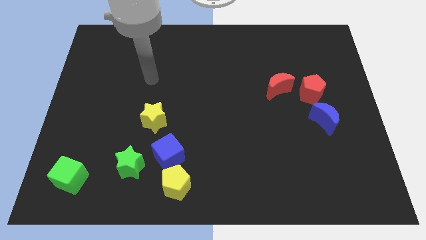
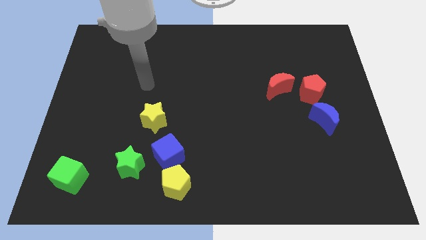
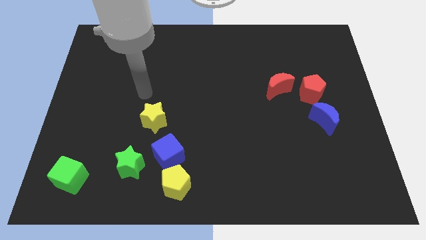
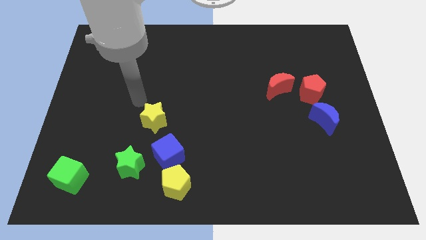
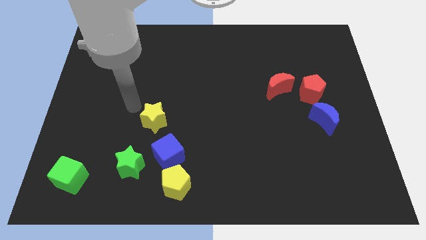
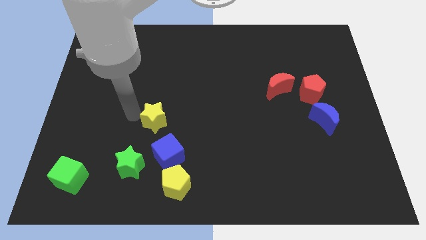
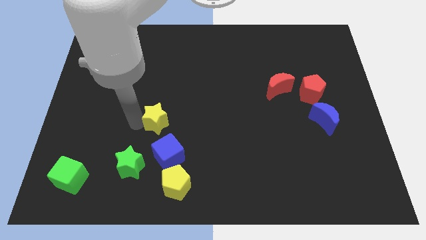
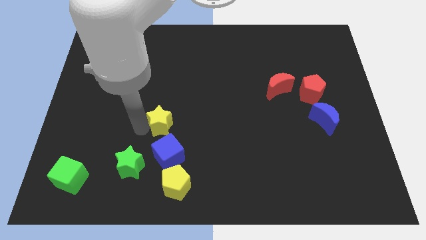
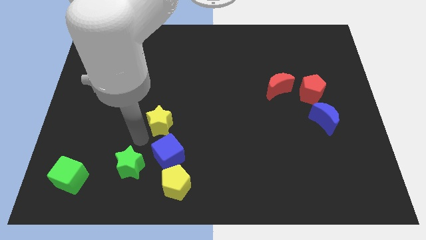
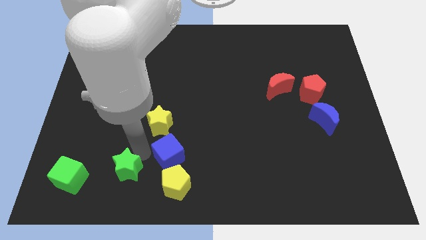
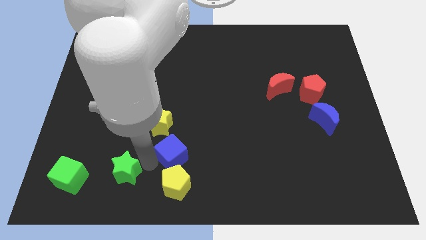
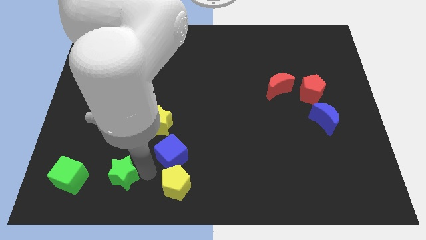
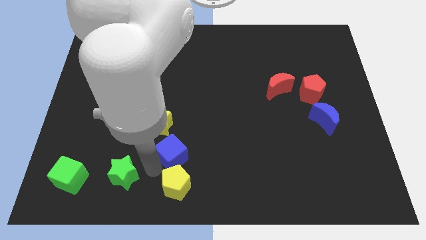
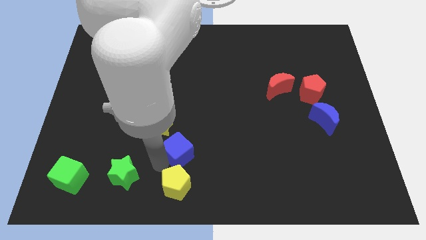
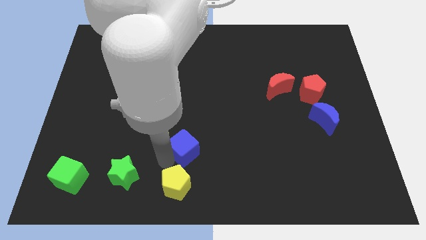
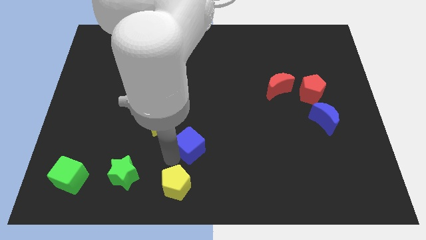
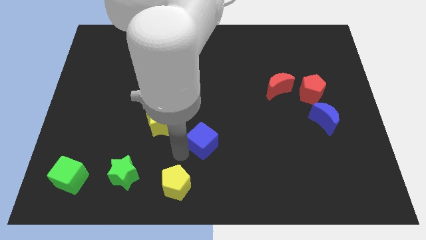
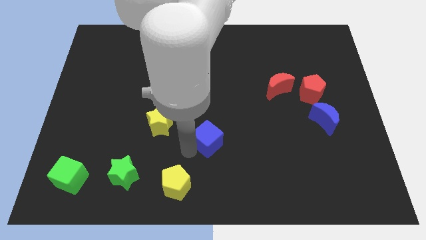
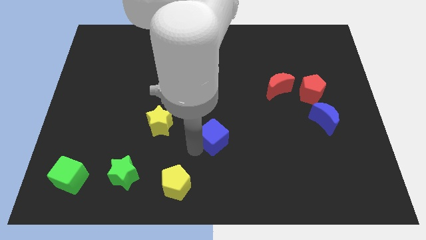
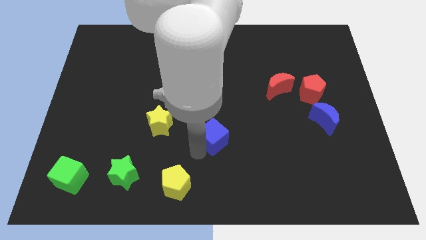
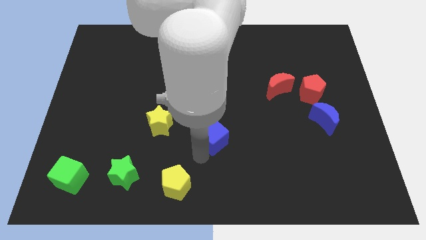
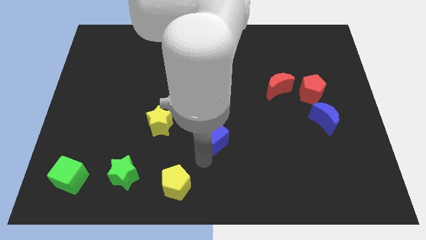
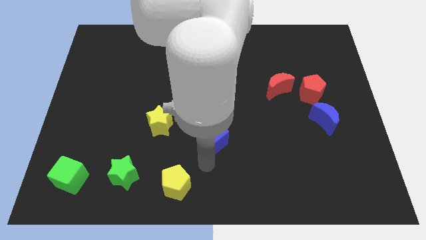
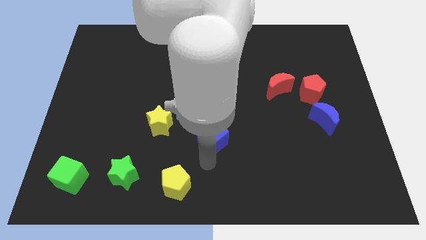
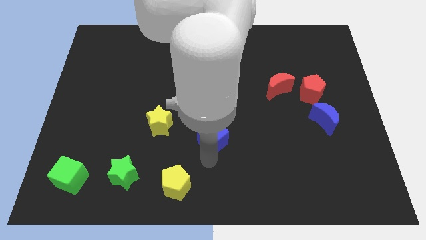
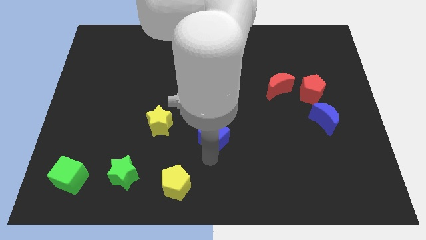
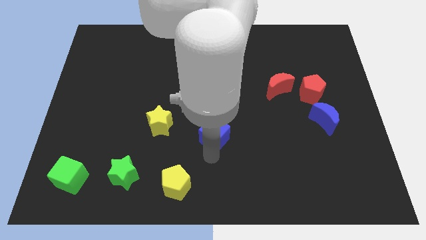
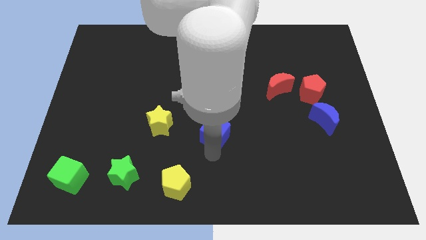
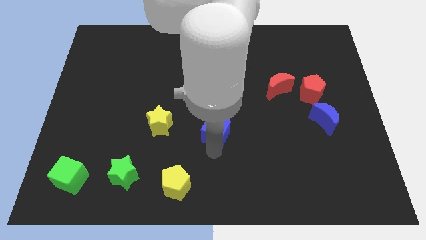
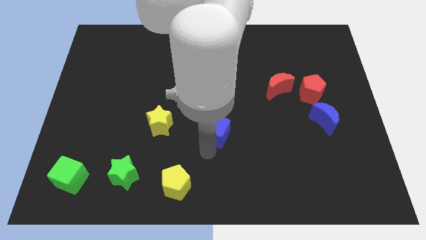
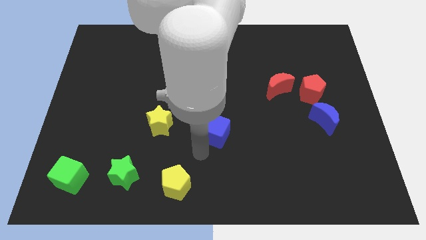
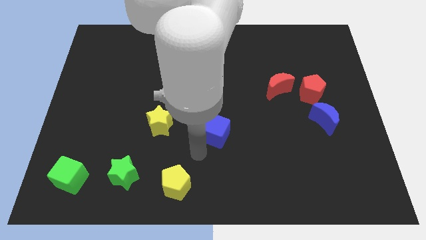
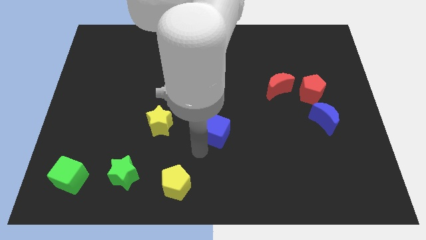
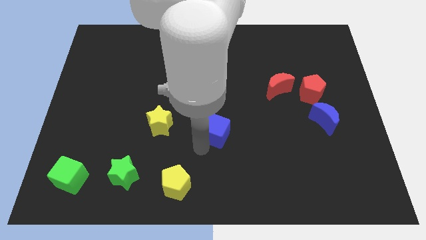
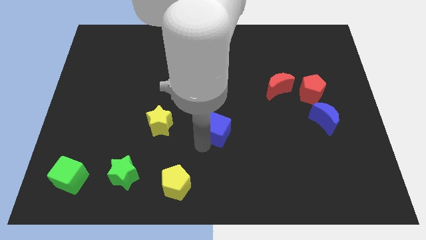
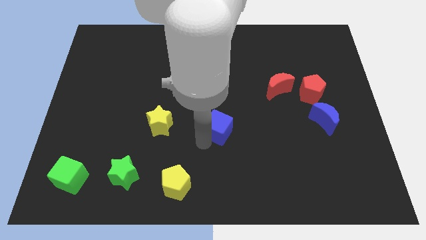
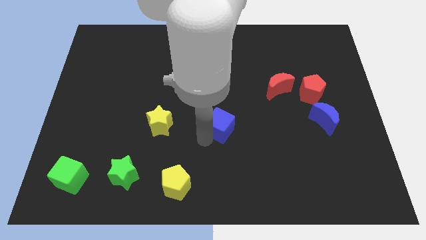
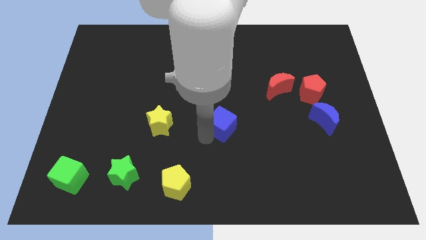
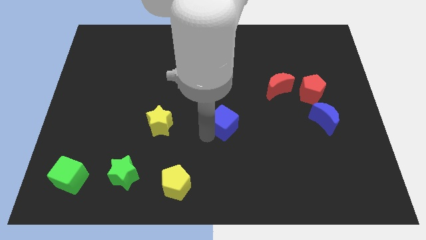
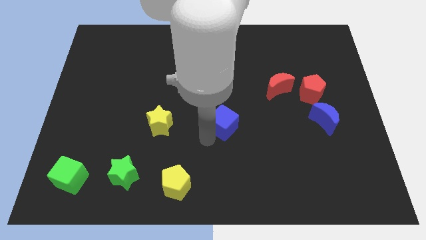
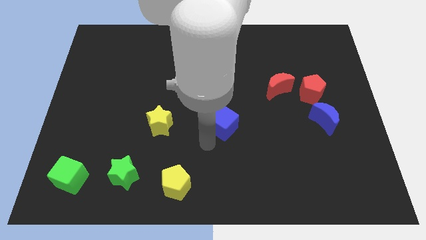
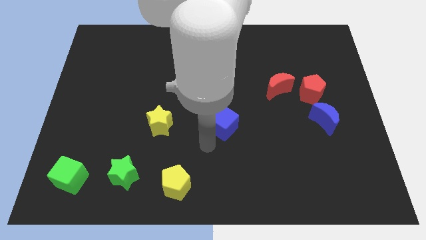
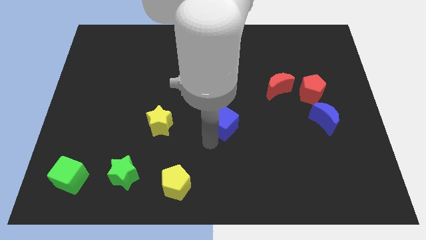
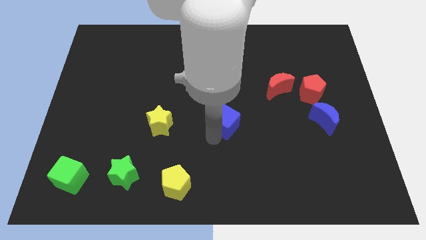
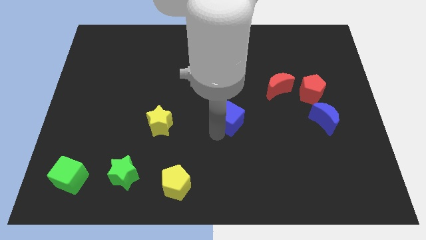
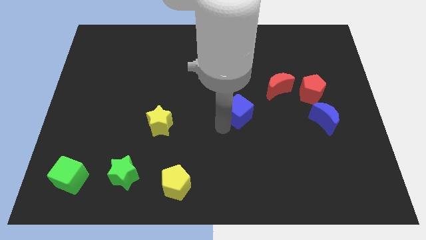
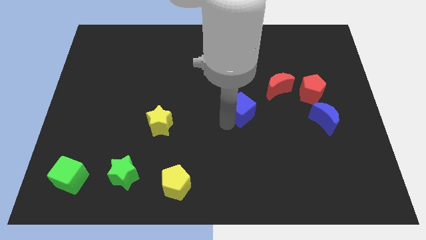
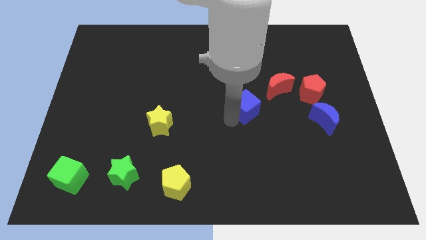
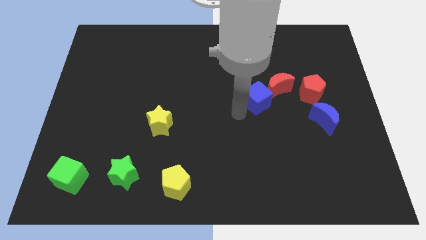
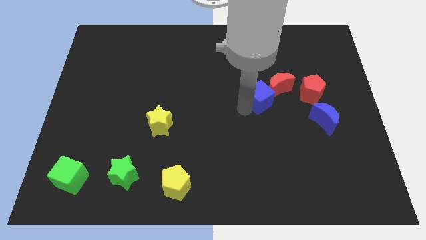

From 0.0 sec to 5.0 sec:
move the blue cube towards the red moon

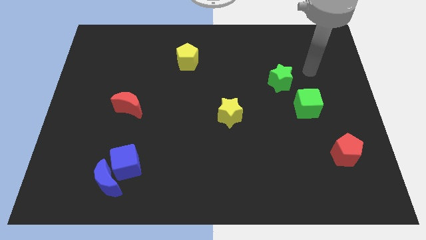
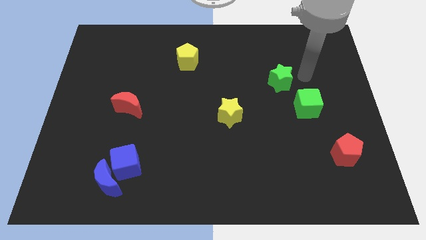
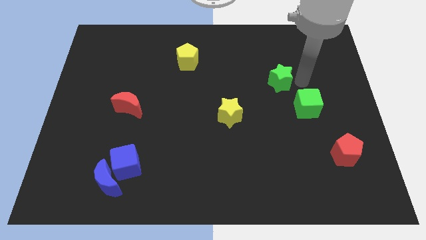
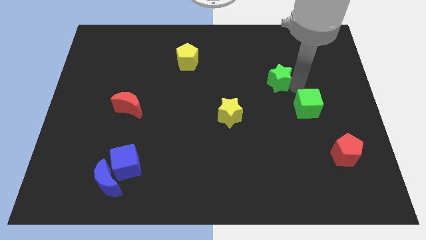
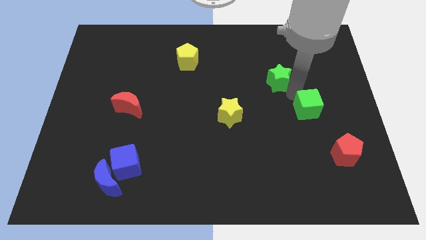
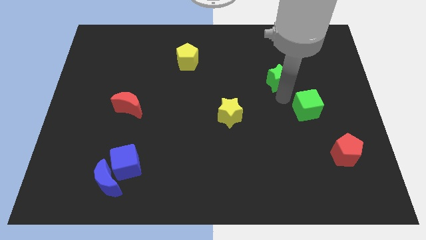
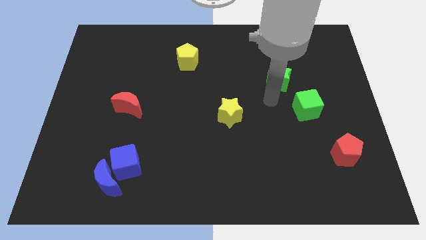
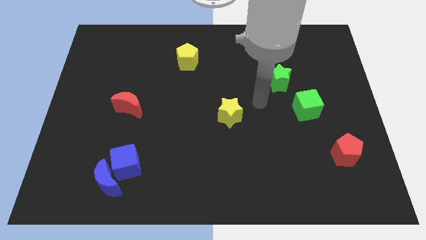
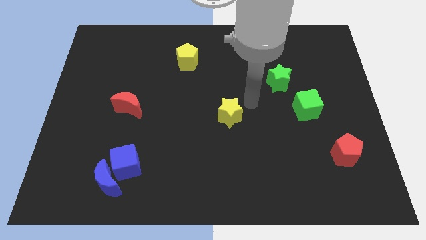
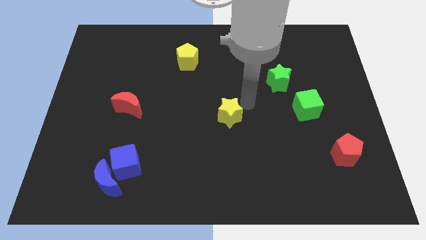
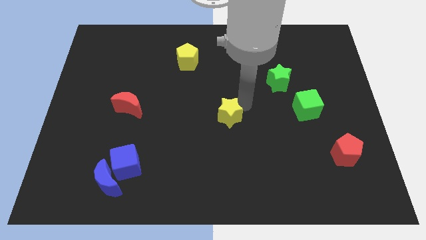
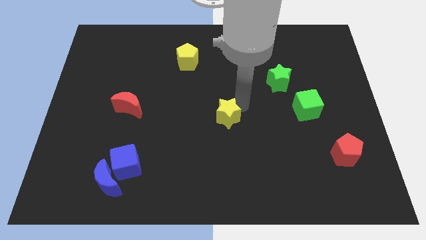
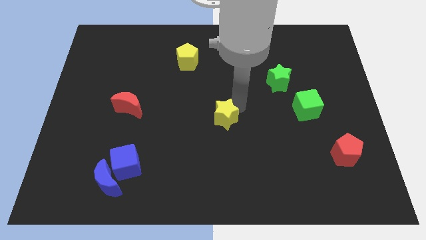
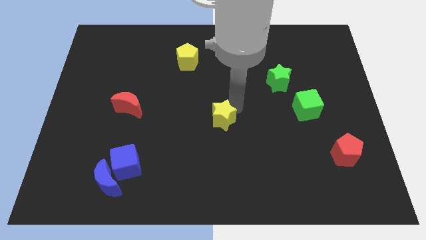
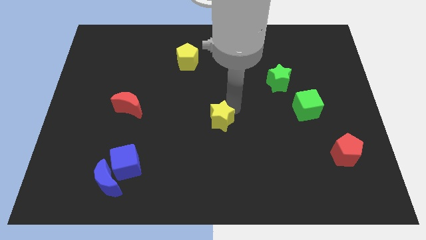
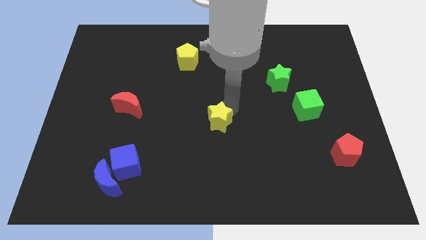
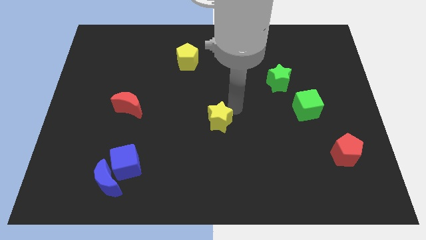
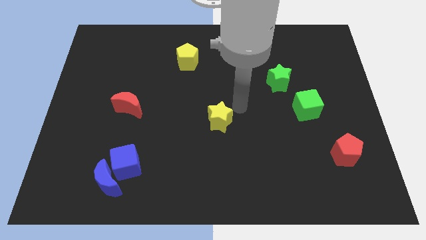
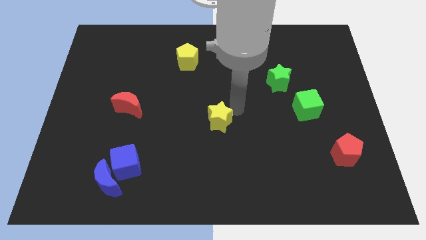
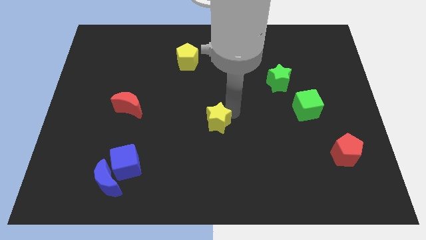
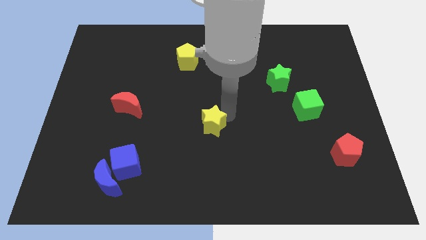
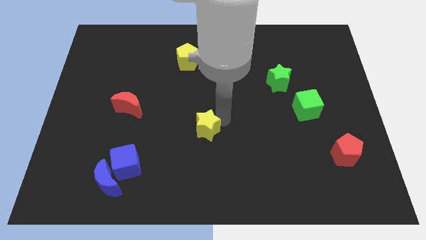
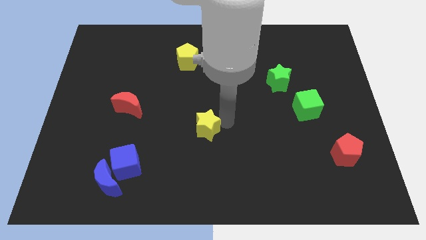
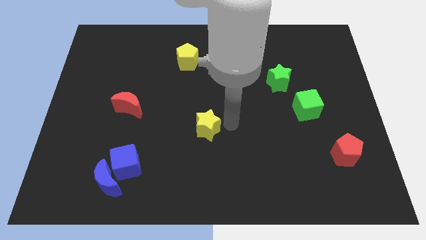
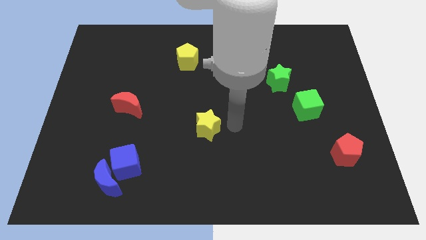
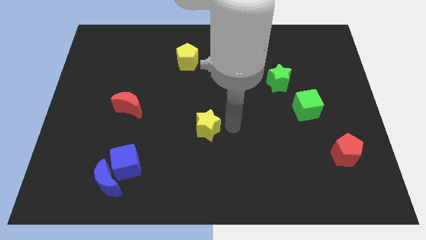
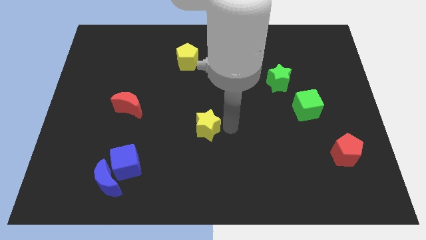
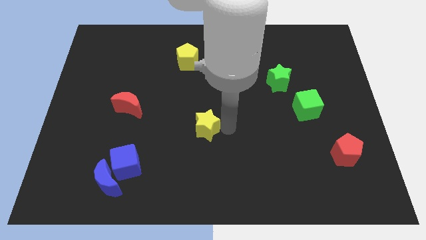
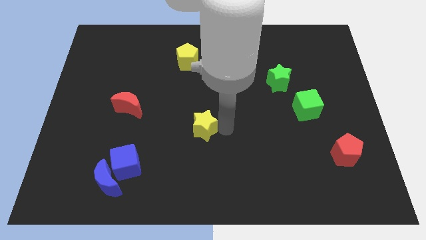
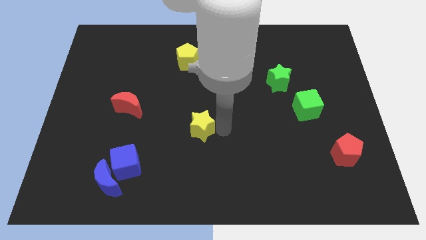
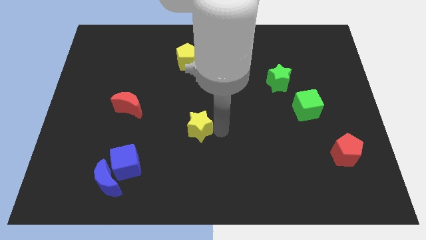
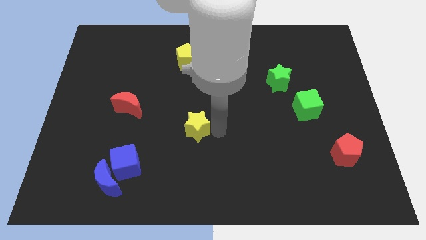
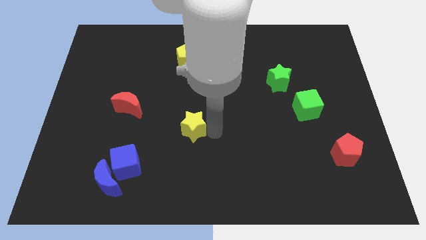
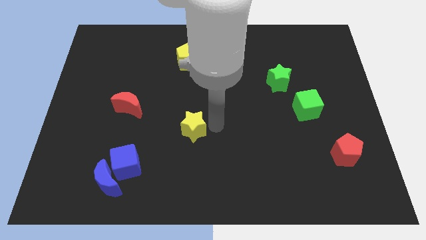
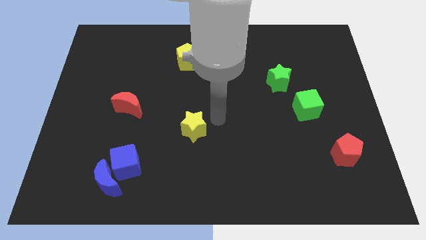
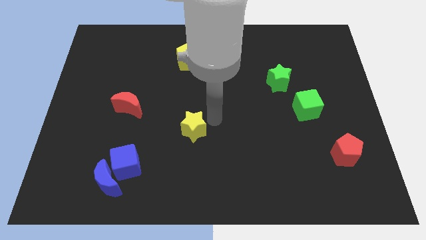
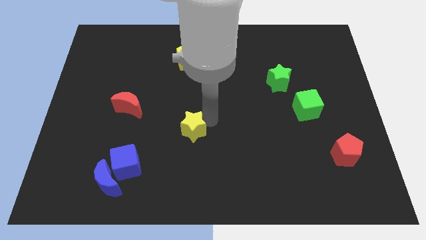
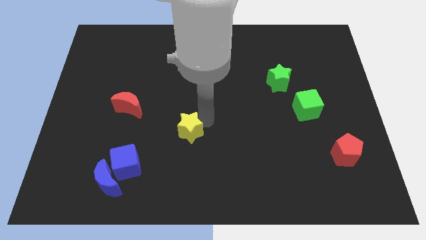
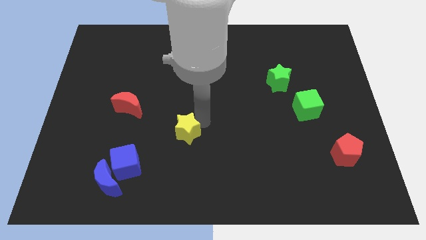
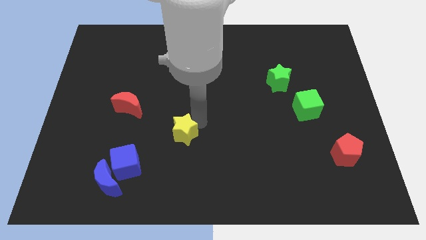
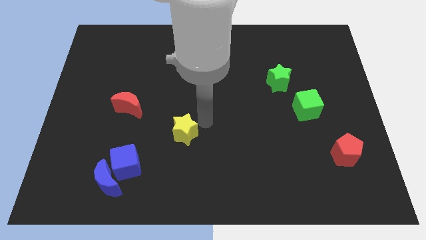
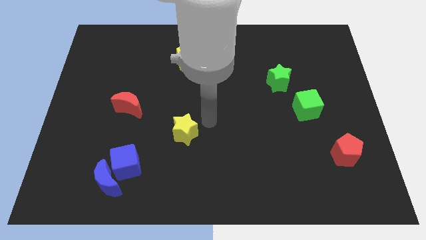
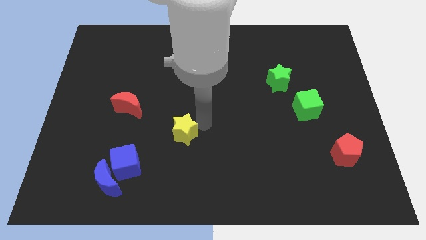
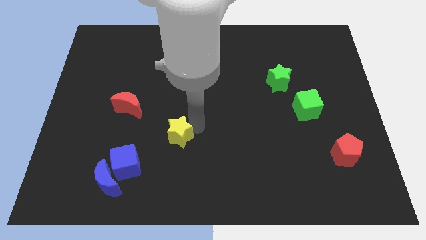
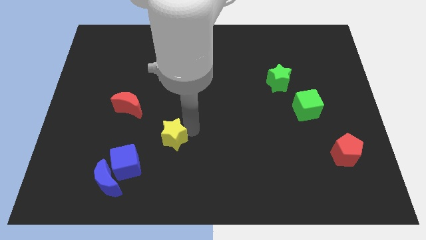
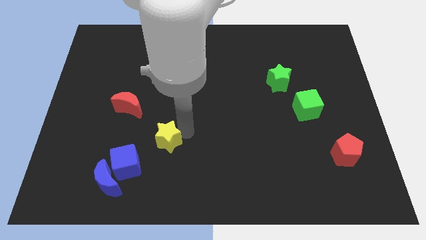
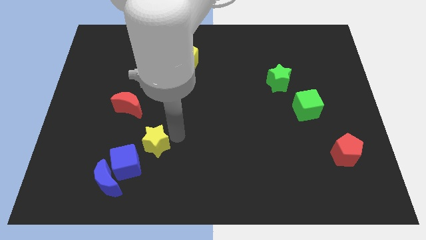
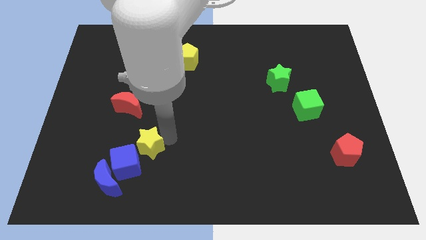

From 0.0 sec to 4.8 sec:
put the yellow star close to the blue cube
